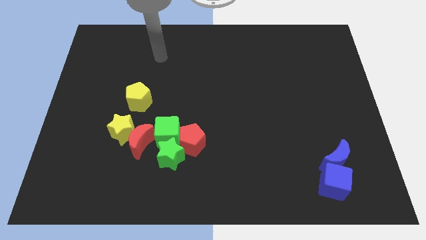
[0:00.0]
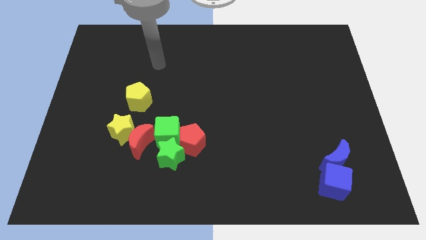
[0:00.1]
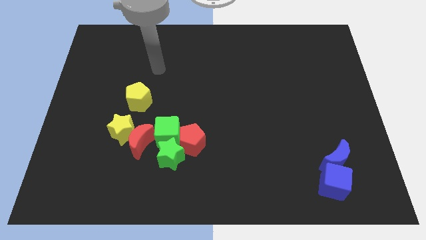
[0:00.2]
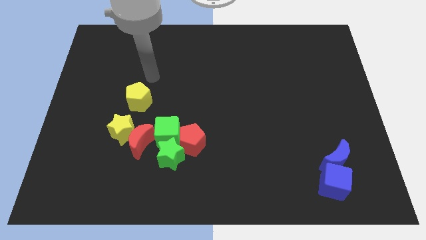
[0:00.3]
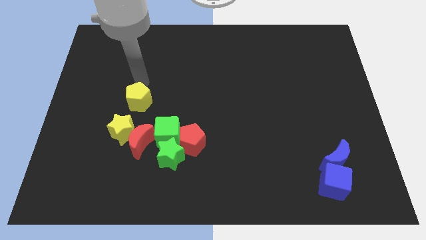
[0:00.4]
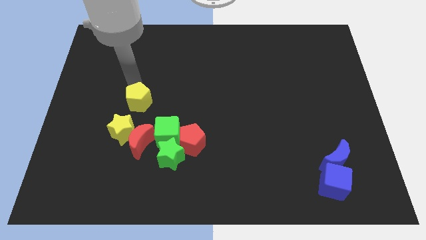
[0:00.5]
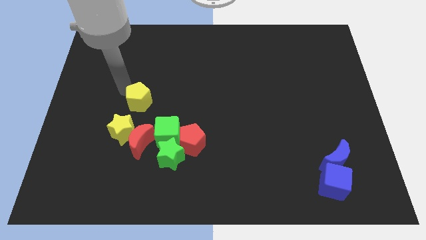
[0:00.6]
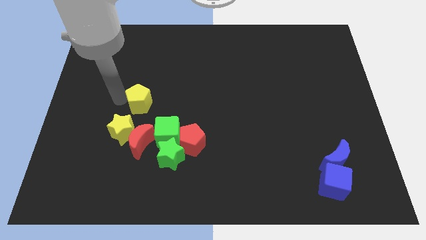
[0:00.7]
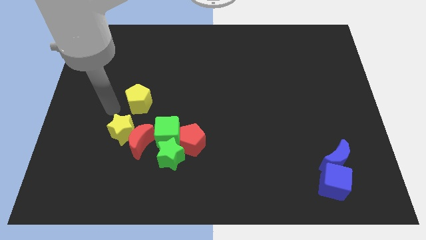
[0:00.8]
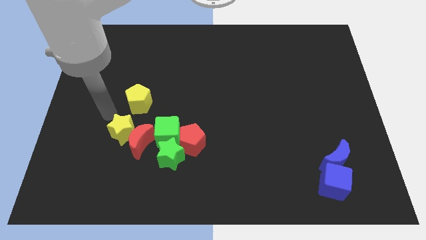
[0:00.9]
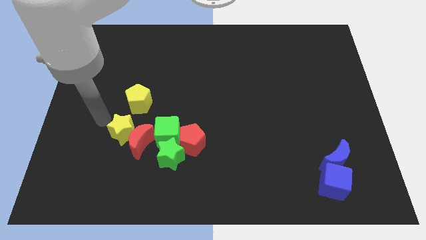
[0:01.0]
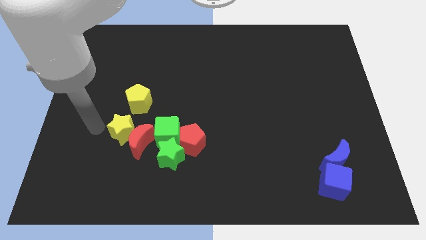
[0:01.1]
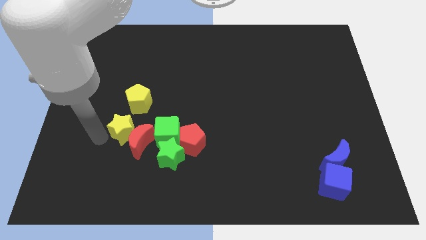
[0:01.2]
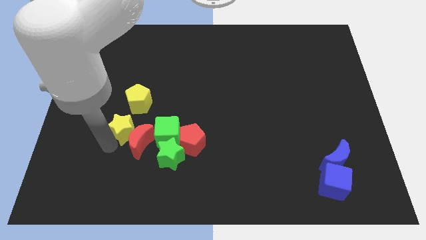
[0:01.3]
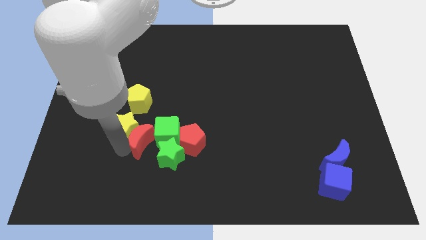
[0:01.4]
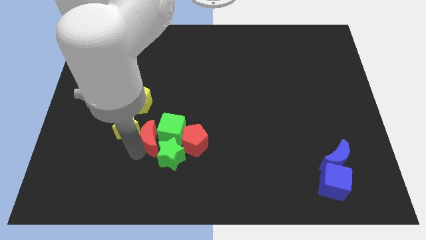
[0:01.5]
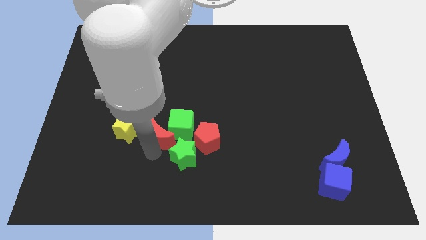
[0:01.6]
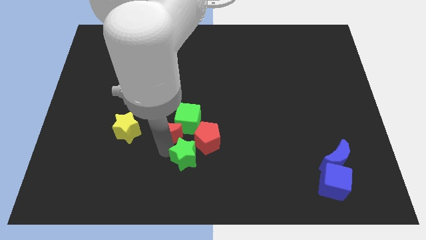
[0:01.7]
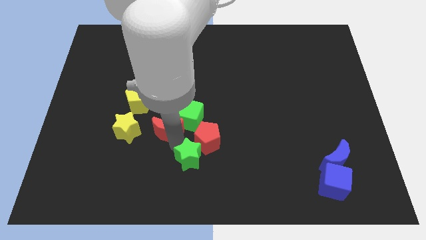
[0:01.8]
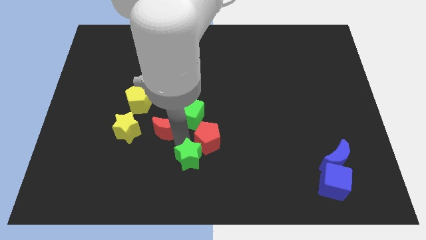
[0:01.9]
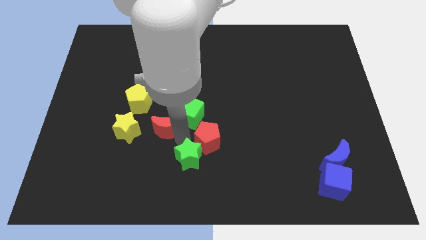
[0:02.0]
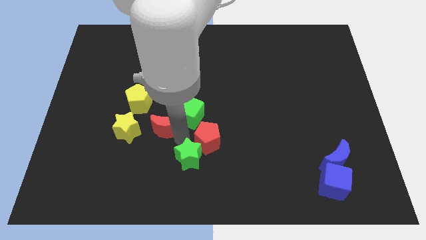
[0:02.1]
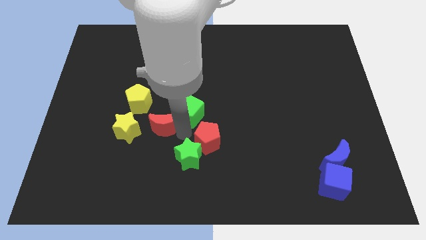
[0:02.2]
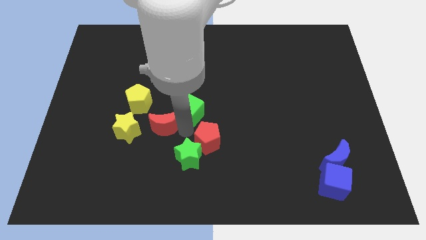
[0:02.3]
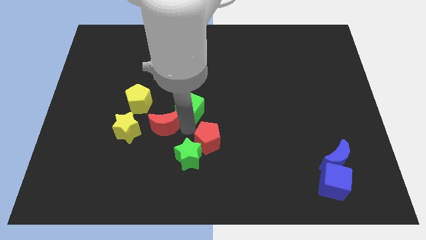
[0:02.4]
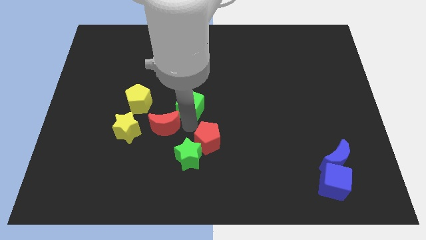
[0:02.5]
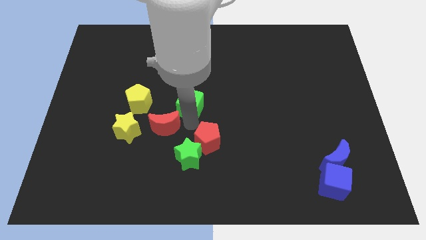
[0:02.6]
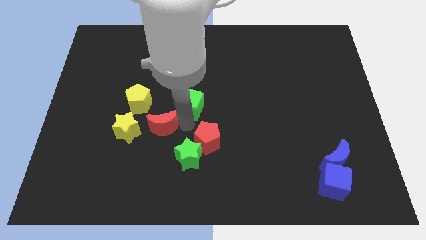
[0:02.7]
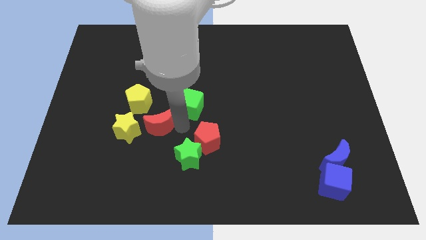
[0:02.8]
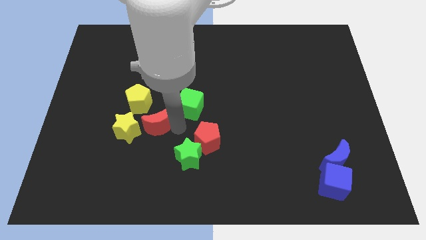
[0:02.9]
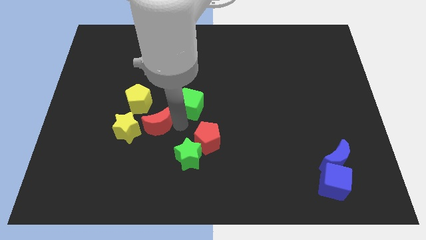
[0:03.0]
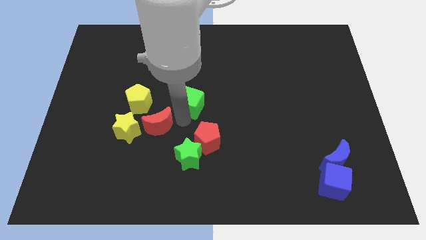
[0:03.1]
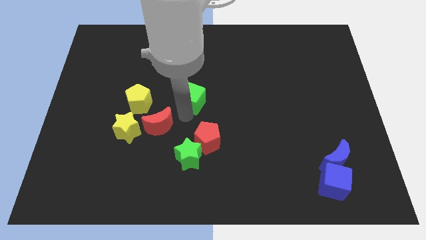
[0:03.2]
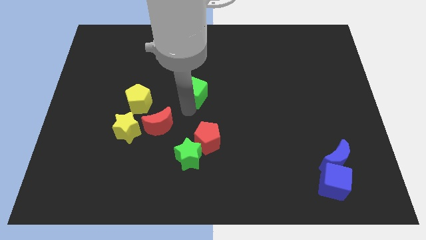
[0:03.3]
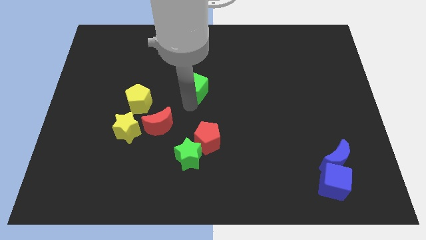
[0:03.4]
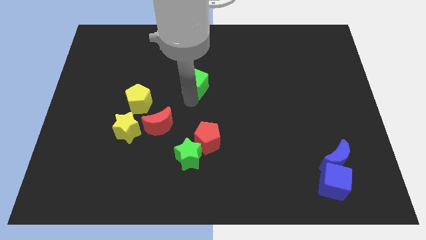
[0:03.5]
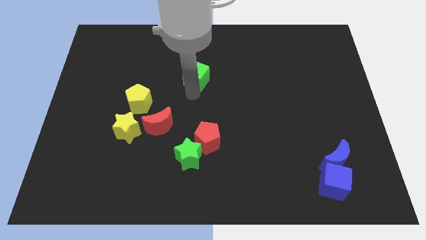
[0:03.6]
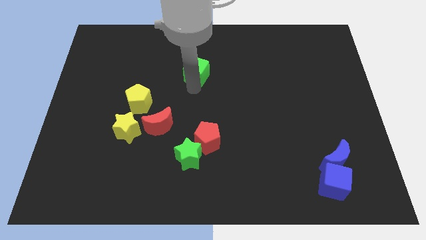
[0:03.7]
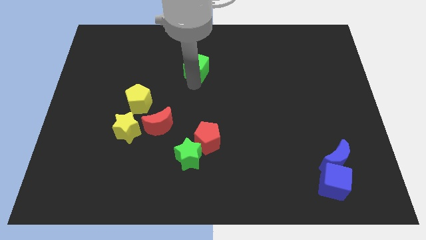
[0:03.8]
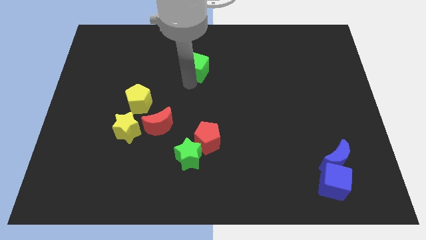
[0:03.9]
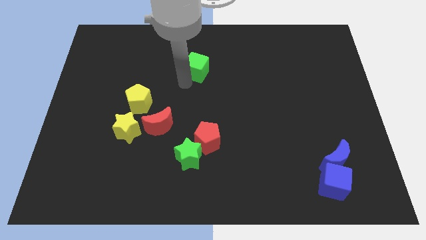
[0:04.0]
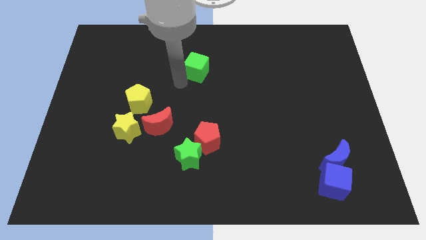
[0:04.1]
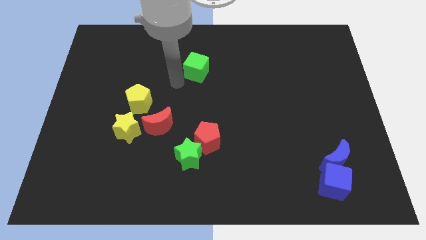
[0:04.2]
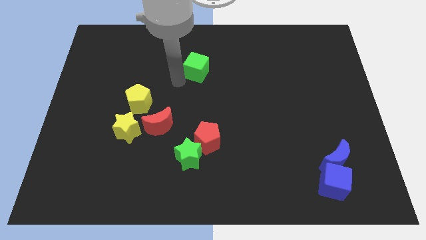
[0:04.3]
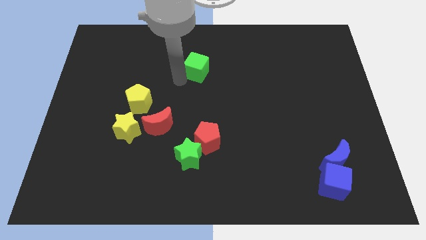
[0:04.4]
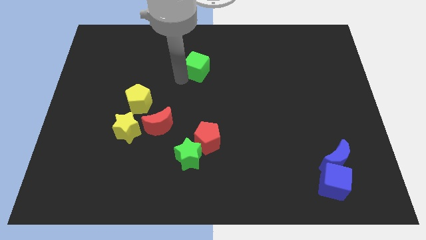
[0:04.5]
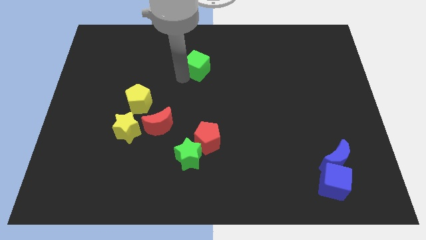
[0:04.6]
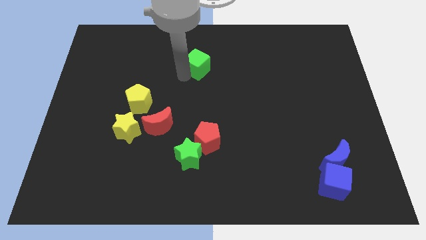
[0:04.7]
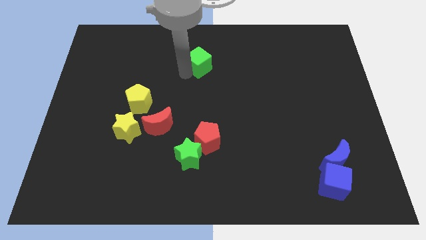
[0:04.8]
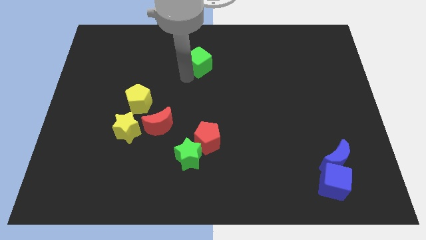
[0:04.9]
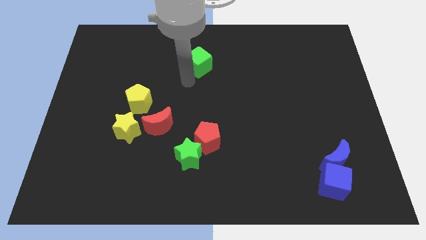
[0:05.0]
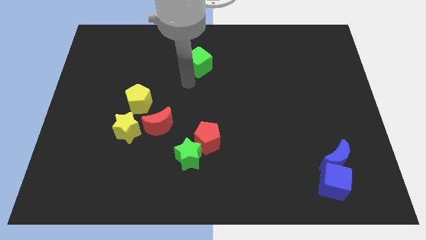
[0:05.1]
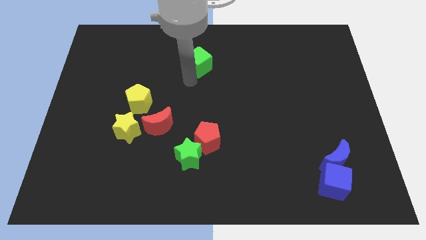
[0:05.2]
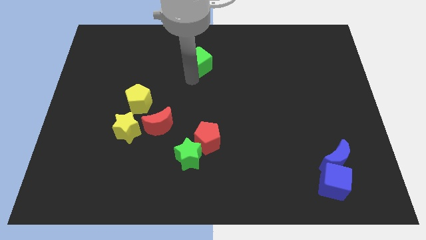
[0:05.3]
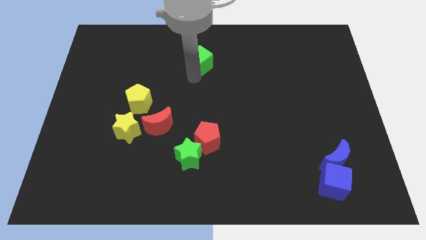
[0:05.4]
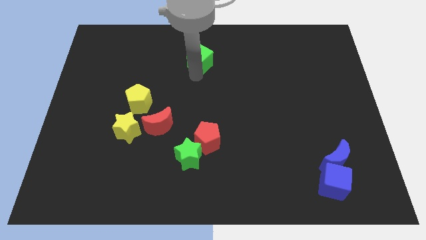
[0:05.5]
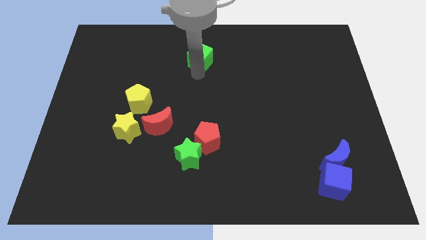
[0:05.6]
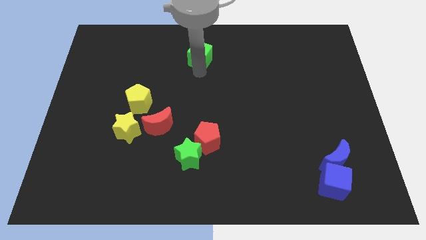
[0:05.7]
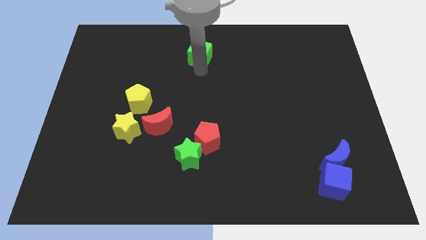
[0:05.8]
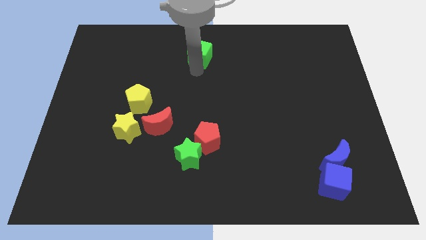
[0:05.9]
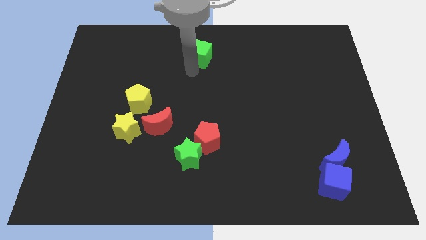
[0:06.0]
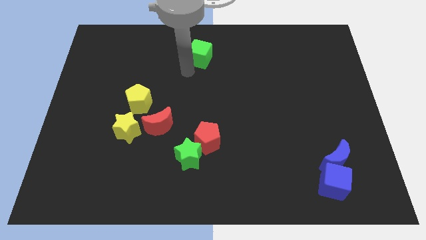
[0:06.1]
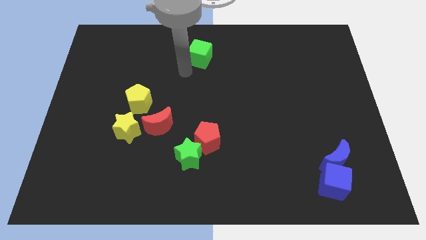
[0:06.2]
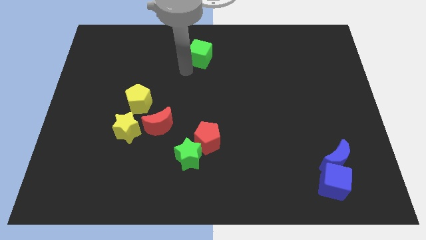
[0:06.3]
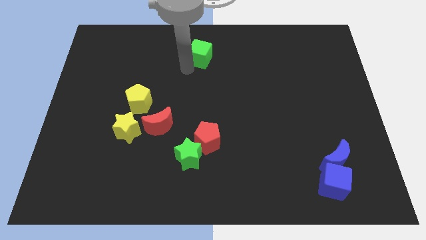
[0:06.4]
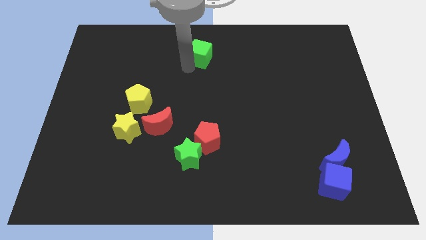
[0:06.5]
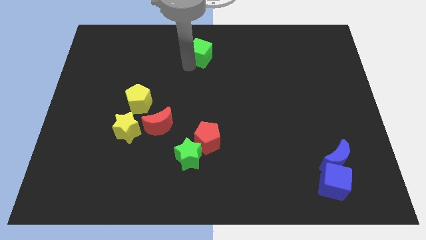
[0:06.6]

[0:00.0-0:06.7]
push the green cube to the top side
